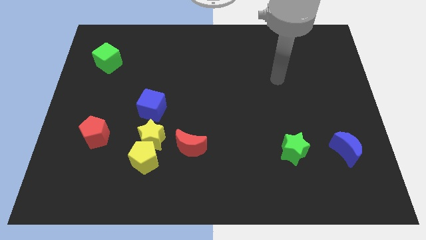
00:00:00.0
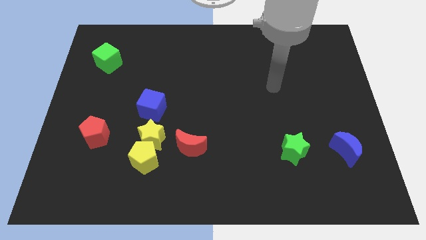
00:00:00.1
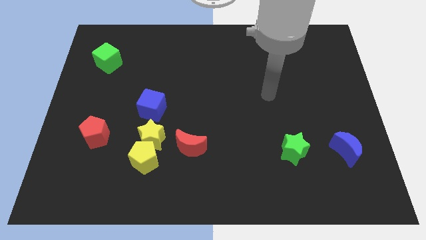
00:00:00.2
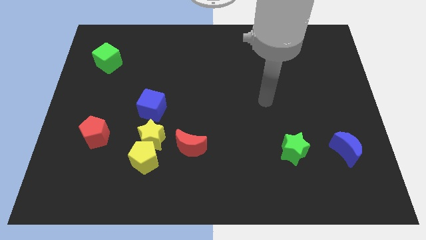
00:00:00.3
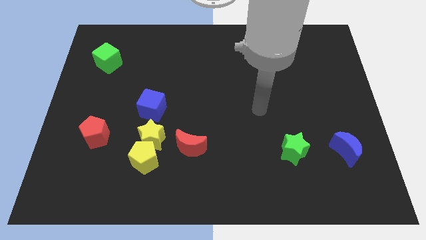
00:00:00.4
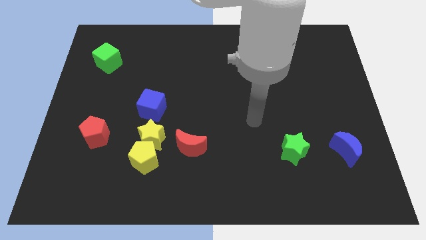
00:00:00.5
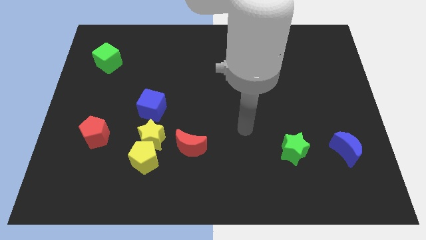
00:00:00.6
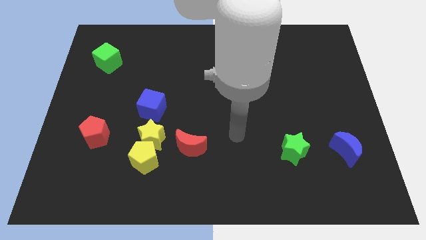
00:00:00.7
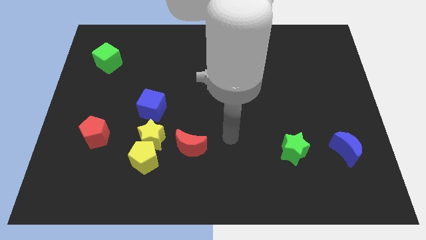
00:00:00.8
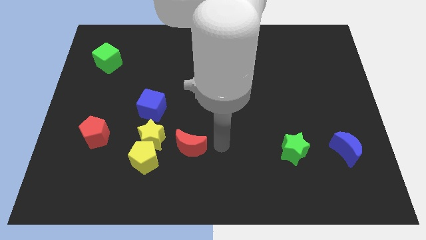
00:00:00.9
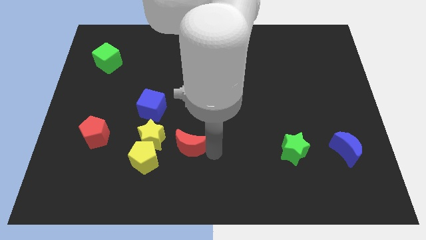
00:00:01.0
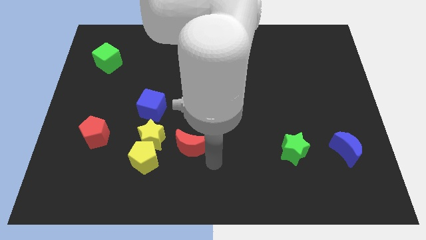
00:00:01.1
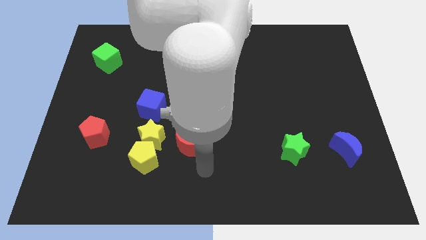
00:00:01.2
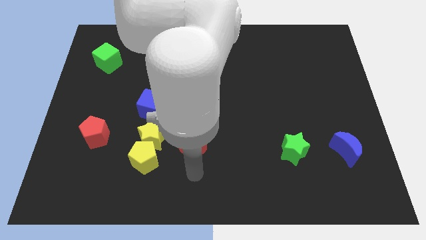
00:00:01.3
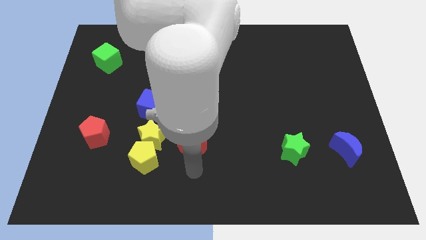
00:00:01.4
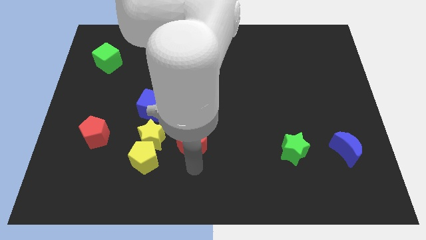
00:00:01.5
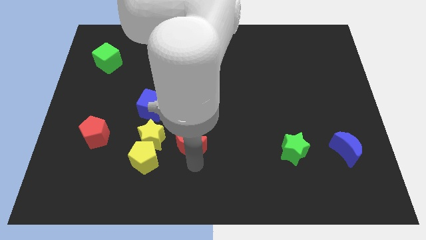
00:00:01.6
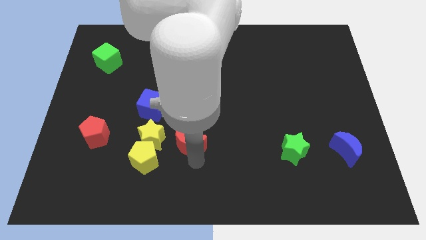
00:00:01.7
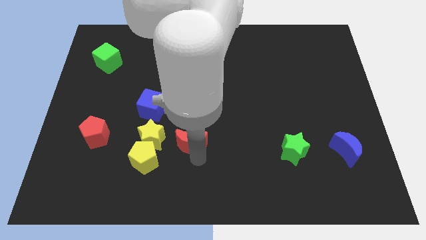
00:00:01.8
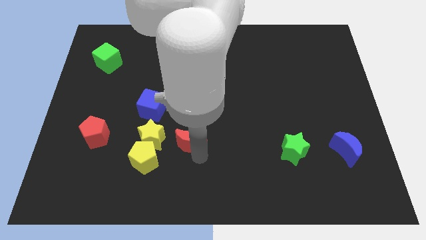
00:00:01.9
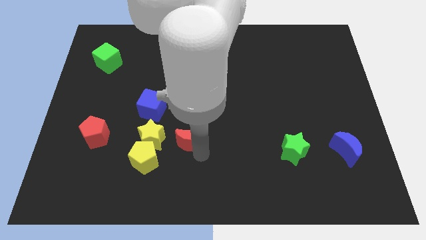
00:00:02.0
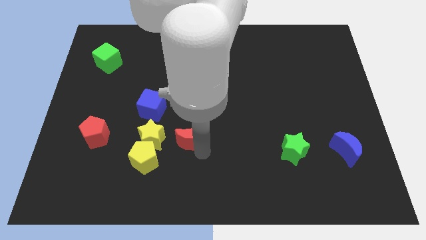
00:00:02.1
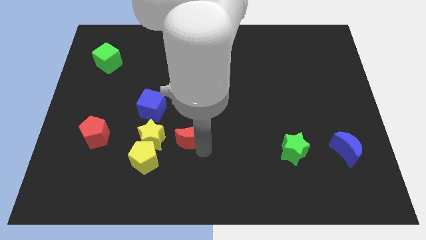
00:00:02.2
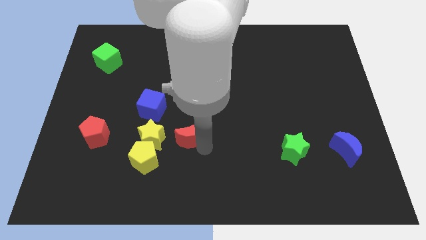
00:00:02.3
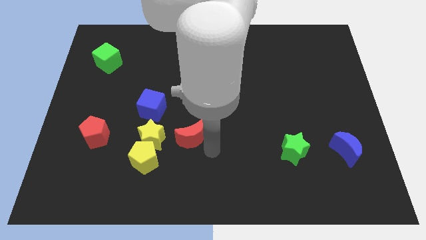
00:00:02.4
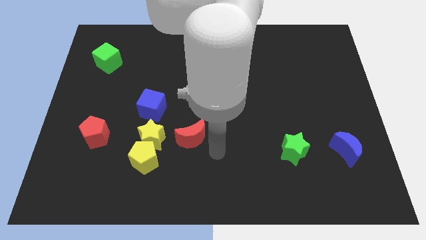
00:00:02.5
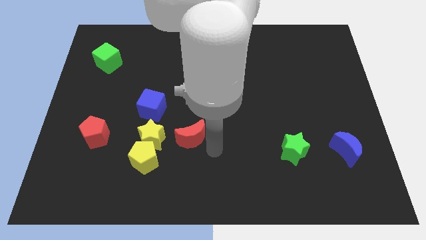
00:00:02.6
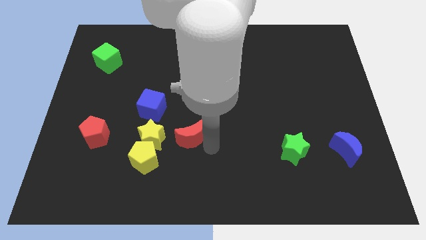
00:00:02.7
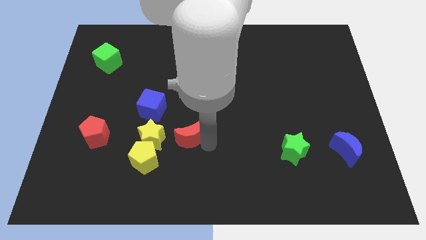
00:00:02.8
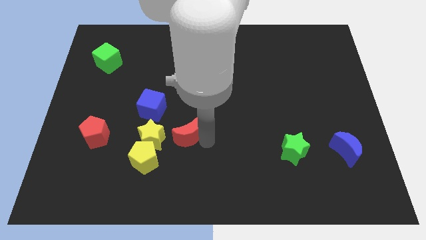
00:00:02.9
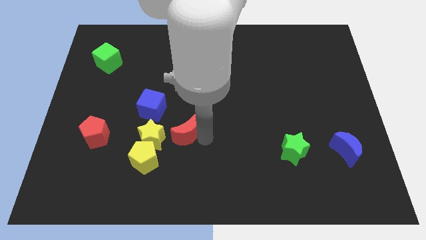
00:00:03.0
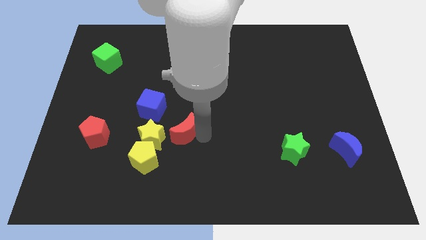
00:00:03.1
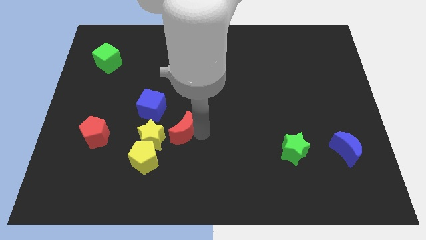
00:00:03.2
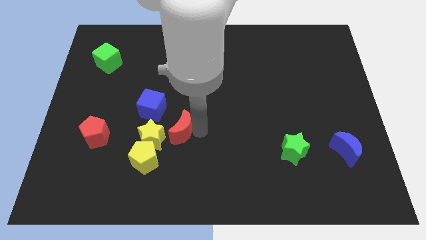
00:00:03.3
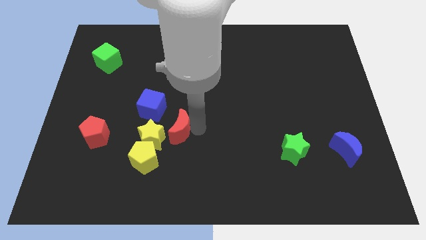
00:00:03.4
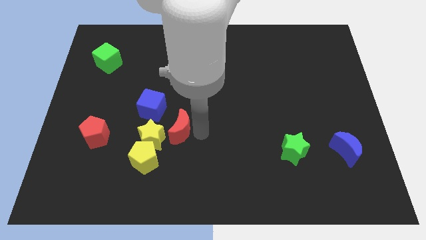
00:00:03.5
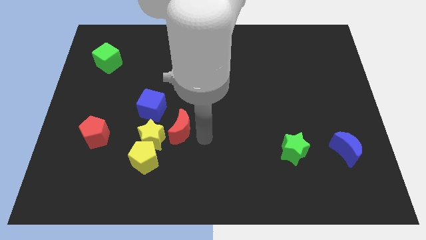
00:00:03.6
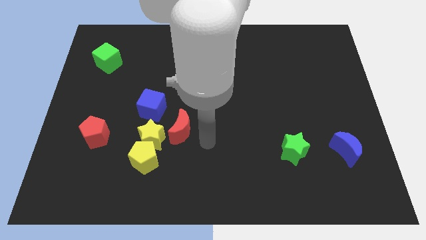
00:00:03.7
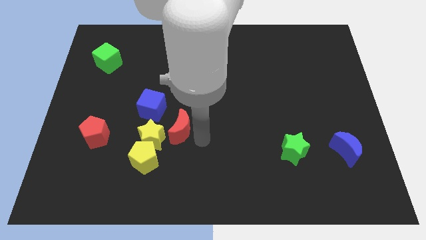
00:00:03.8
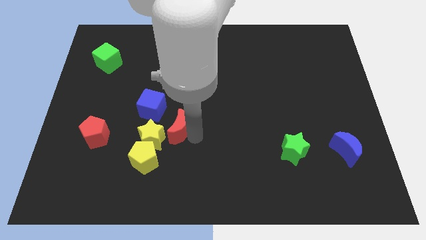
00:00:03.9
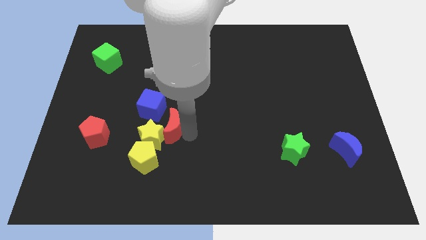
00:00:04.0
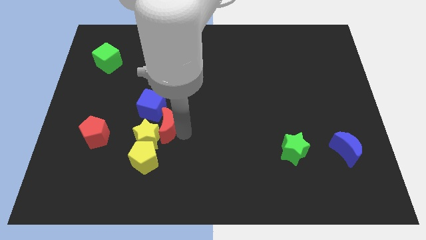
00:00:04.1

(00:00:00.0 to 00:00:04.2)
move the red moon upwards and left somewhat

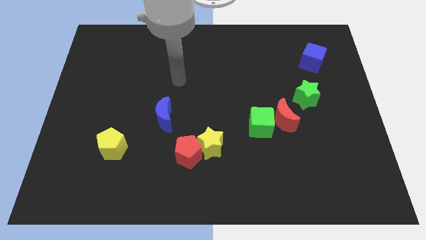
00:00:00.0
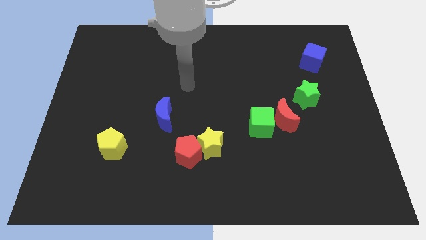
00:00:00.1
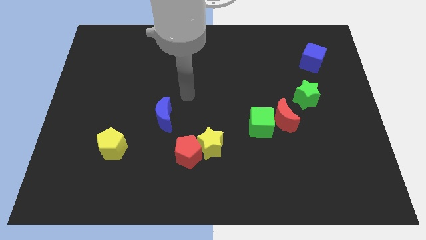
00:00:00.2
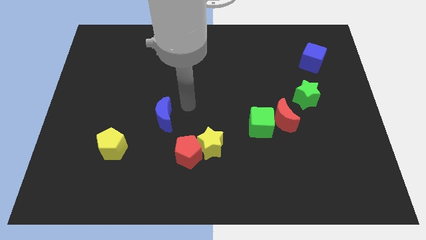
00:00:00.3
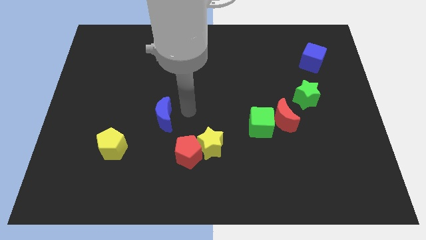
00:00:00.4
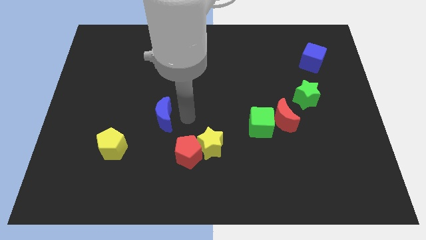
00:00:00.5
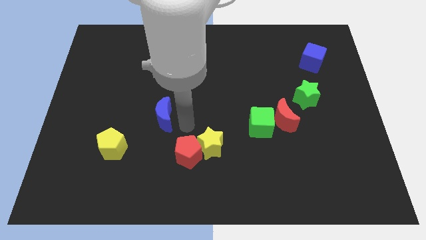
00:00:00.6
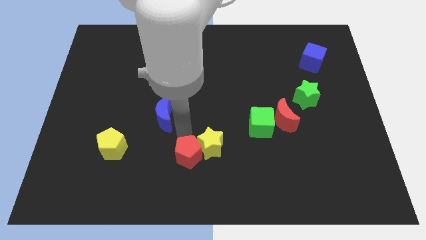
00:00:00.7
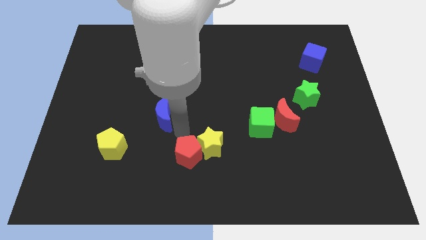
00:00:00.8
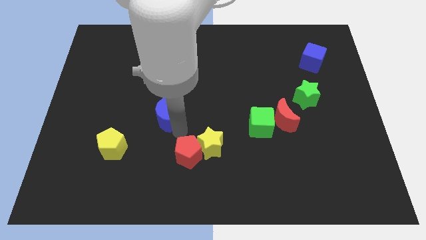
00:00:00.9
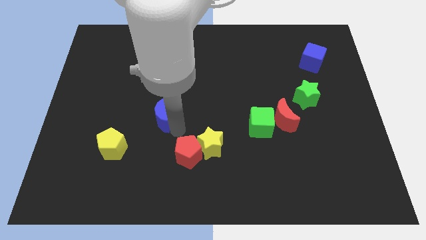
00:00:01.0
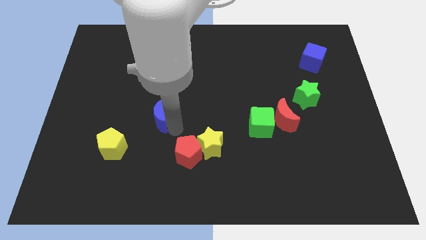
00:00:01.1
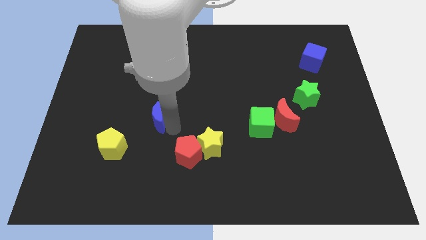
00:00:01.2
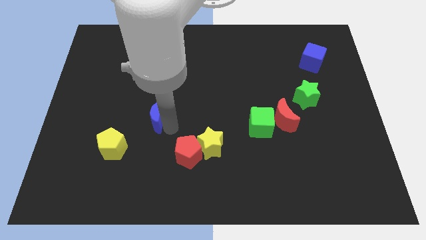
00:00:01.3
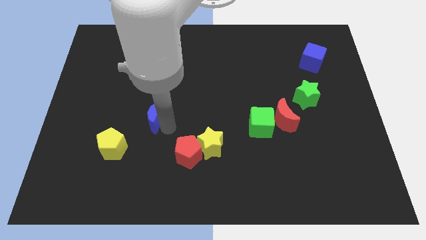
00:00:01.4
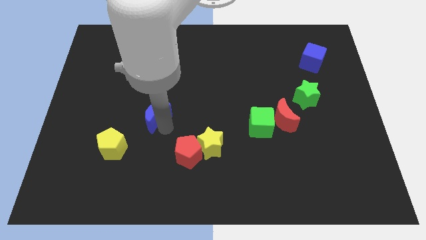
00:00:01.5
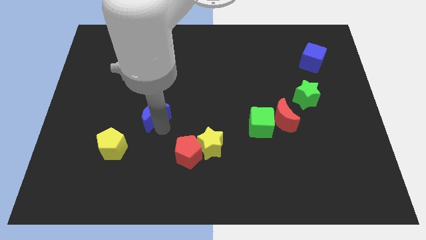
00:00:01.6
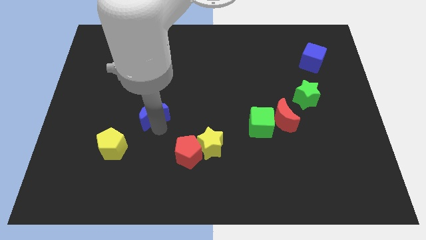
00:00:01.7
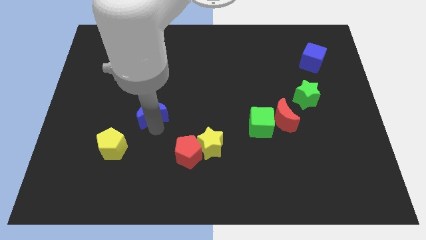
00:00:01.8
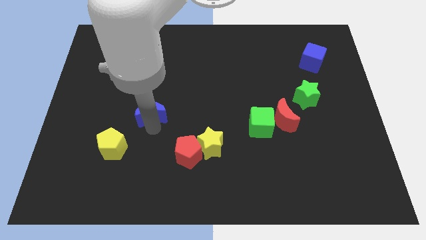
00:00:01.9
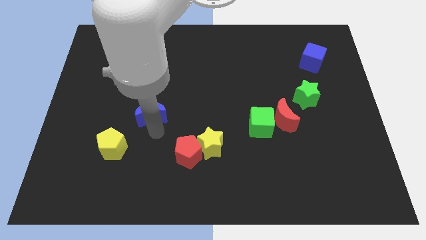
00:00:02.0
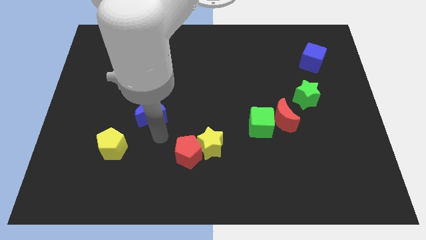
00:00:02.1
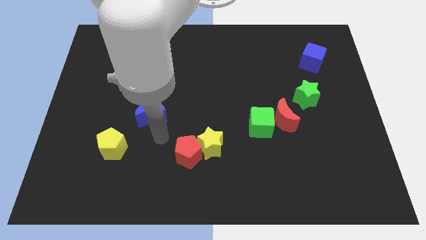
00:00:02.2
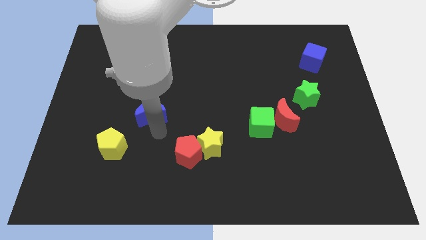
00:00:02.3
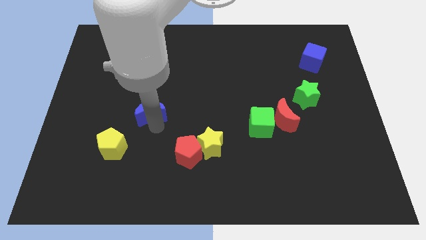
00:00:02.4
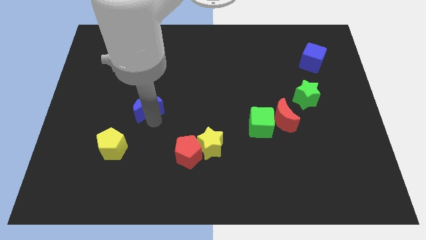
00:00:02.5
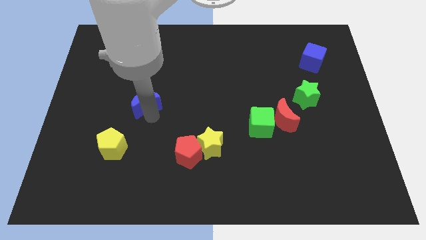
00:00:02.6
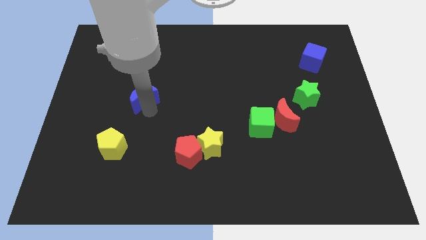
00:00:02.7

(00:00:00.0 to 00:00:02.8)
slide the blue moon up and then to the left somewhat

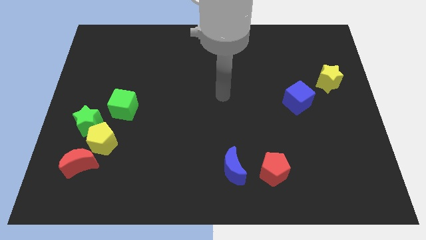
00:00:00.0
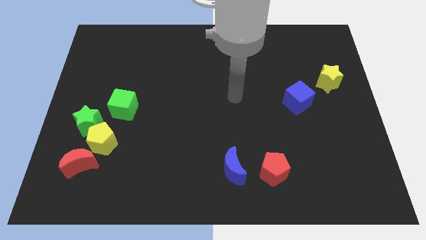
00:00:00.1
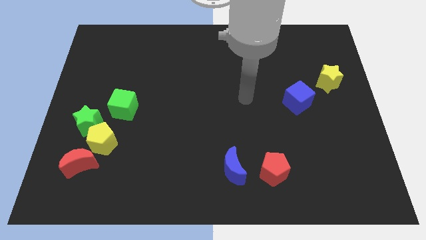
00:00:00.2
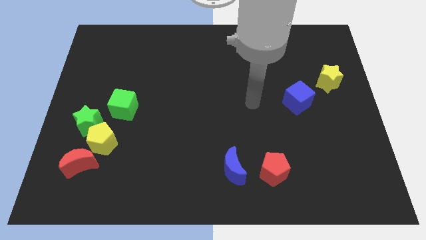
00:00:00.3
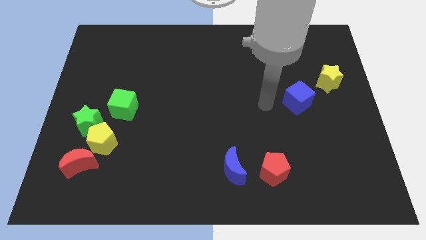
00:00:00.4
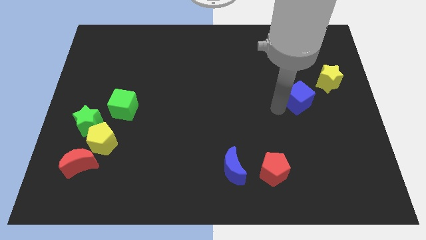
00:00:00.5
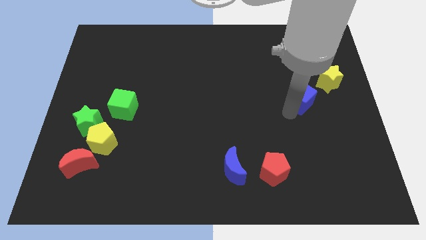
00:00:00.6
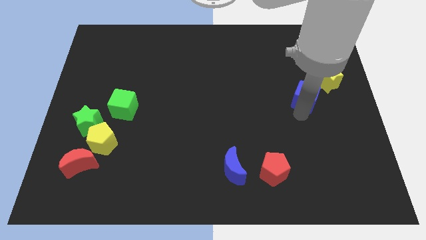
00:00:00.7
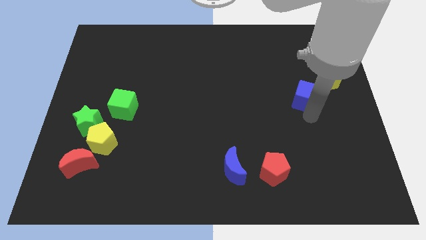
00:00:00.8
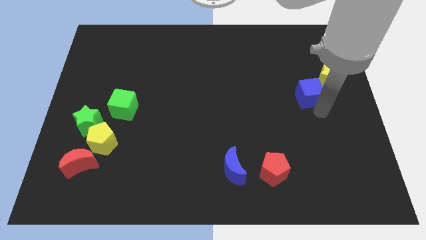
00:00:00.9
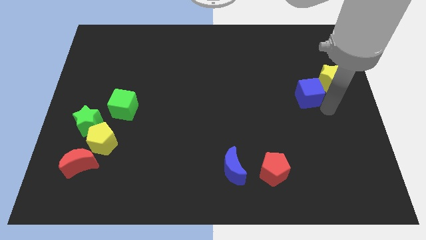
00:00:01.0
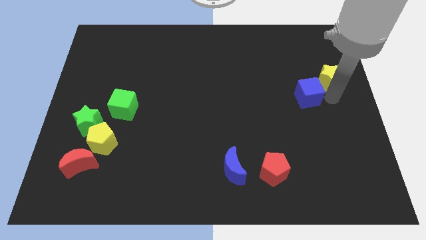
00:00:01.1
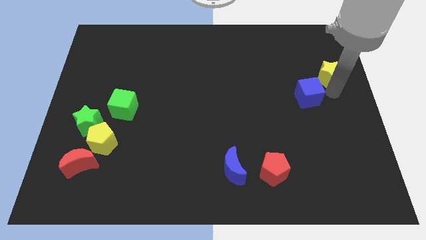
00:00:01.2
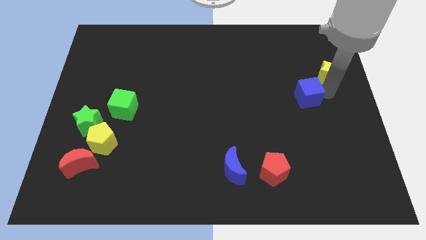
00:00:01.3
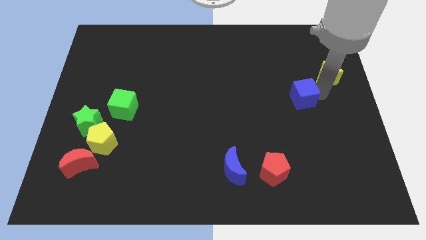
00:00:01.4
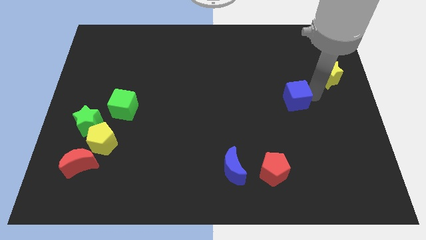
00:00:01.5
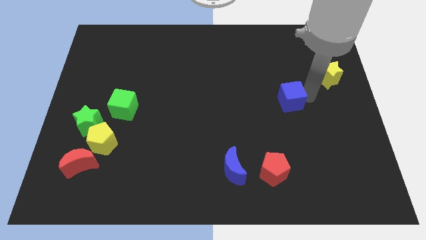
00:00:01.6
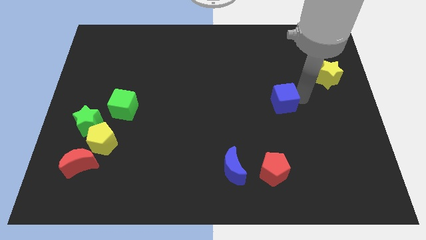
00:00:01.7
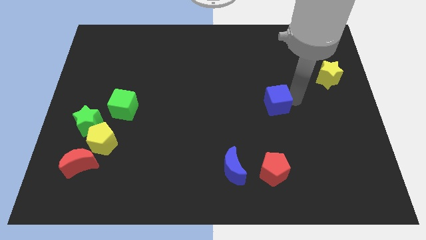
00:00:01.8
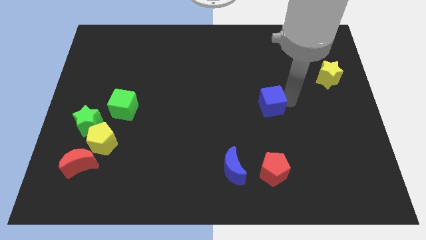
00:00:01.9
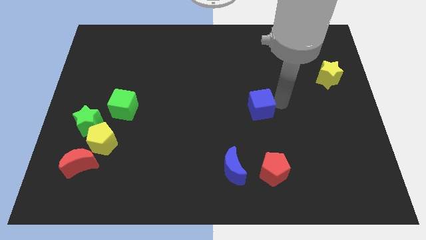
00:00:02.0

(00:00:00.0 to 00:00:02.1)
slightly push the blue cube left
